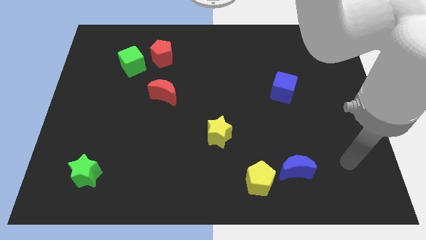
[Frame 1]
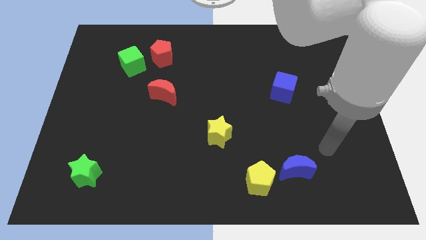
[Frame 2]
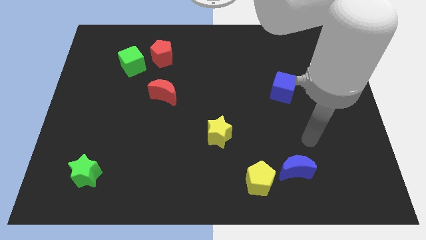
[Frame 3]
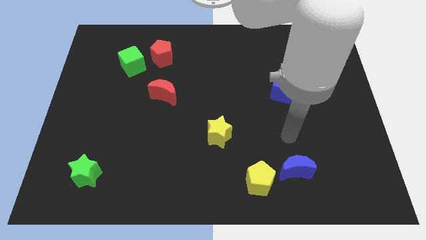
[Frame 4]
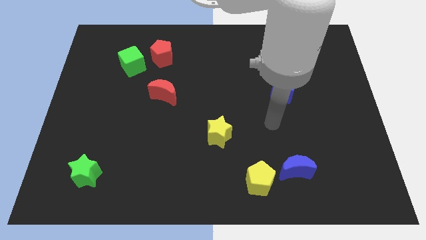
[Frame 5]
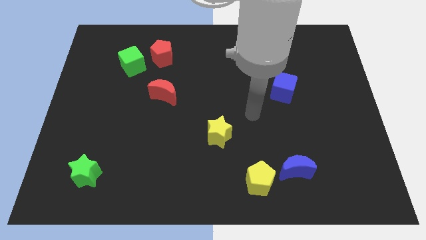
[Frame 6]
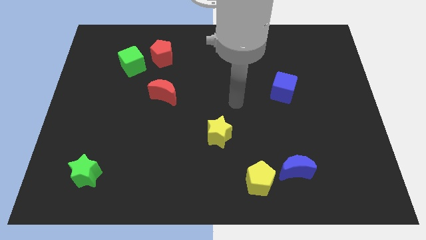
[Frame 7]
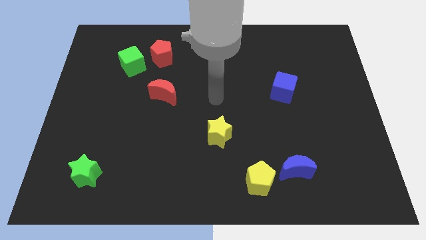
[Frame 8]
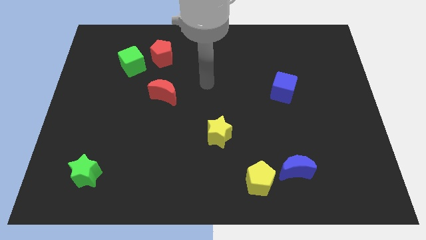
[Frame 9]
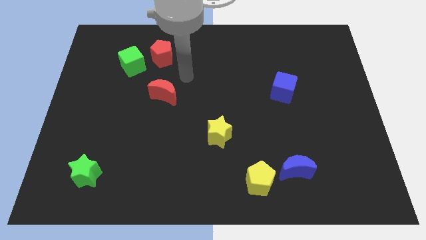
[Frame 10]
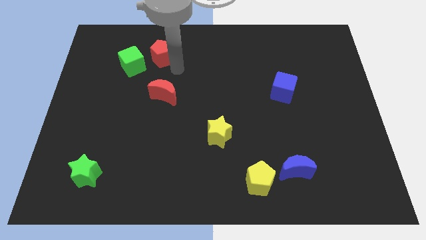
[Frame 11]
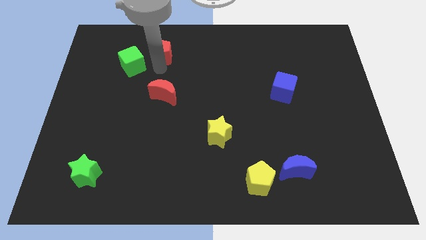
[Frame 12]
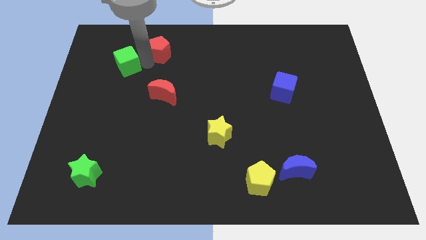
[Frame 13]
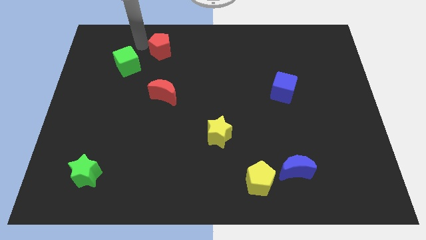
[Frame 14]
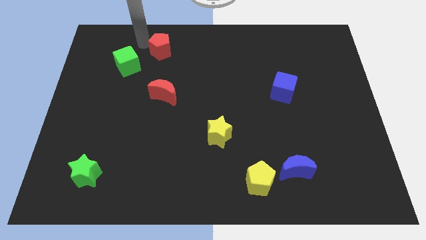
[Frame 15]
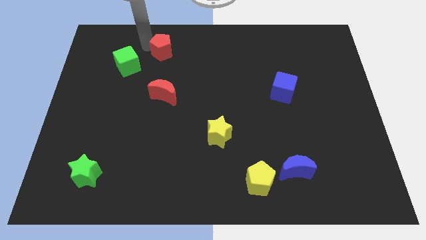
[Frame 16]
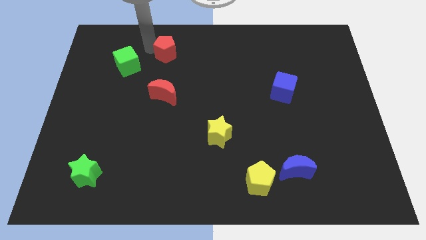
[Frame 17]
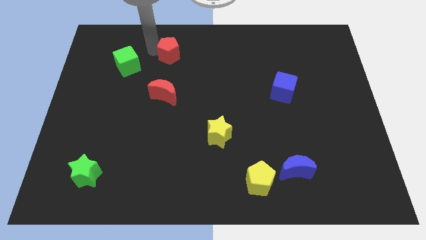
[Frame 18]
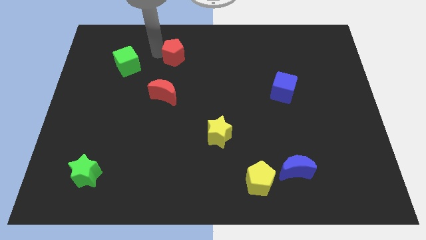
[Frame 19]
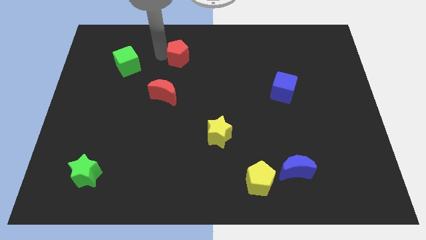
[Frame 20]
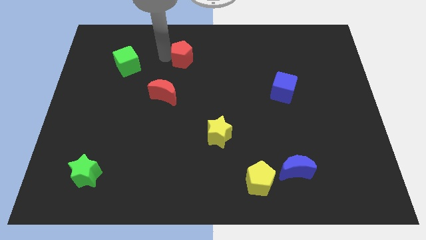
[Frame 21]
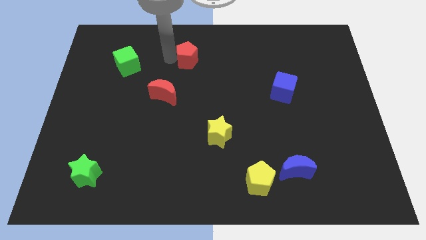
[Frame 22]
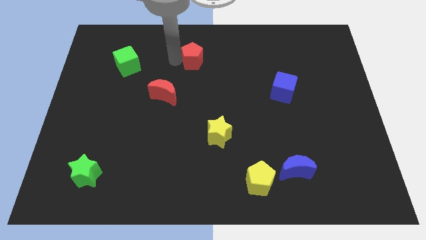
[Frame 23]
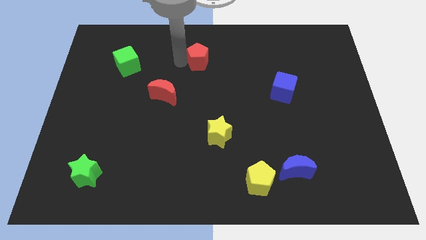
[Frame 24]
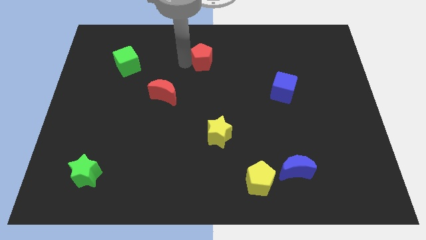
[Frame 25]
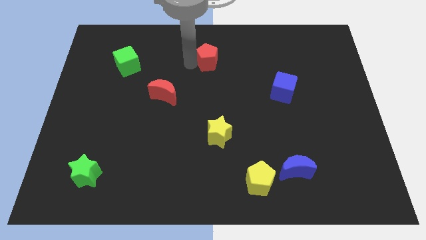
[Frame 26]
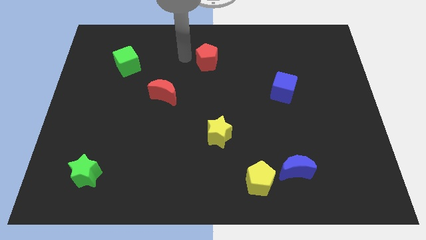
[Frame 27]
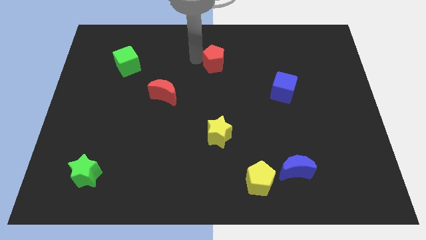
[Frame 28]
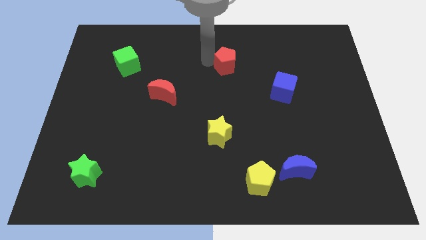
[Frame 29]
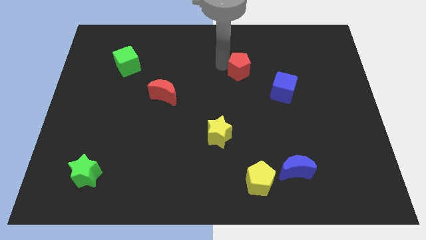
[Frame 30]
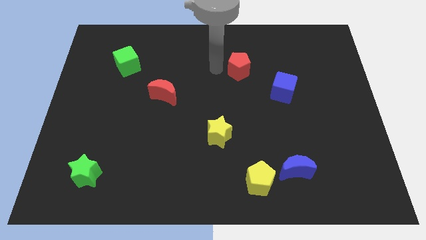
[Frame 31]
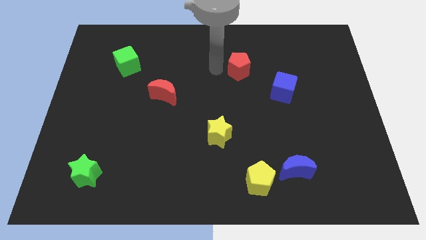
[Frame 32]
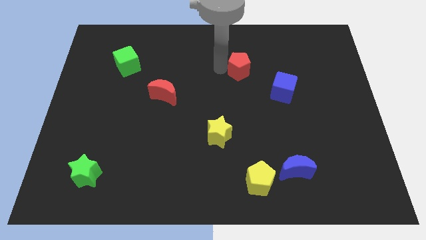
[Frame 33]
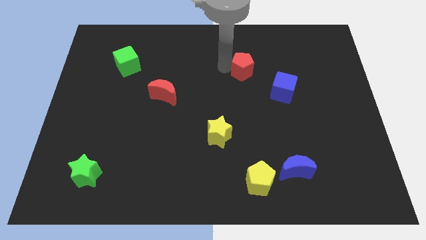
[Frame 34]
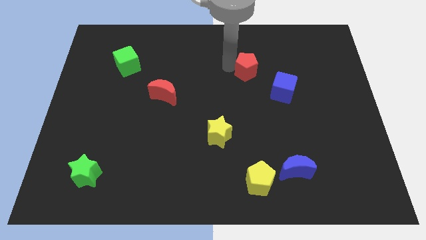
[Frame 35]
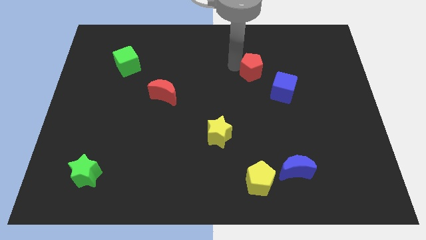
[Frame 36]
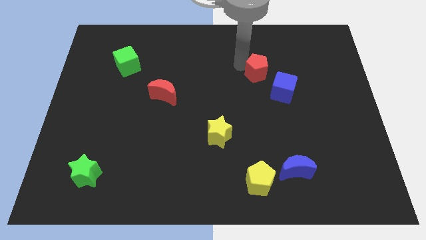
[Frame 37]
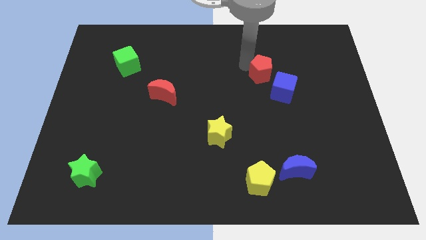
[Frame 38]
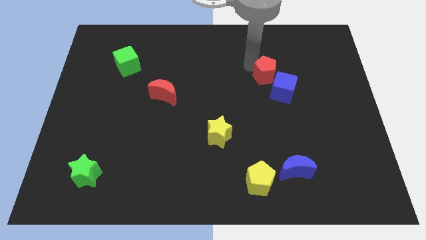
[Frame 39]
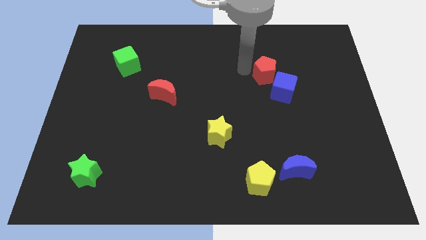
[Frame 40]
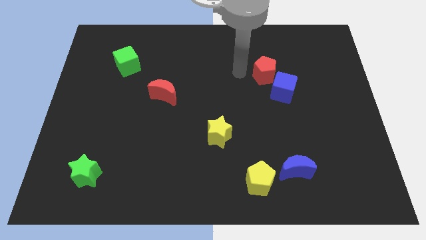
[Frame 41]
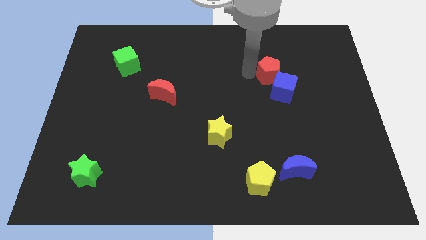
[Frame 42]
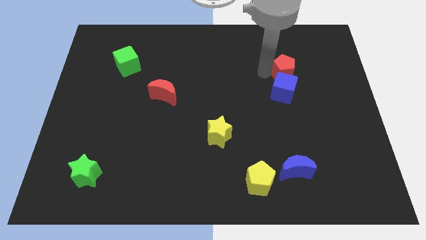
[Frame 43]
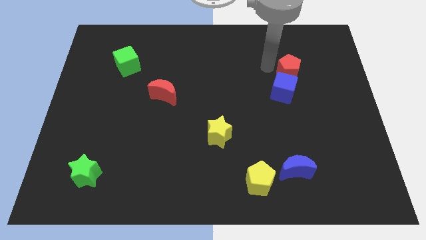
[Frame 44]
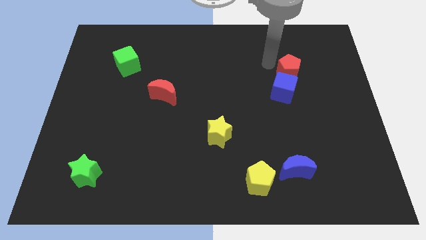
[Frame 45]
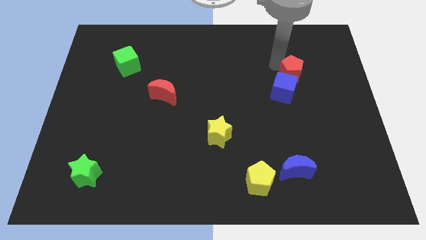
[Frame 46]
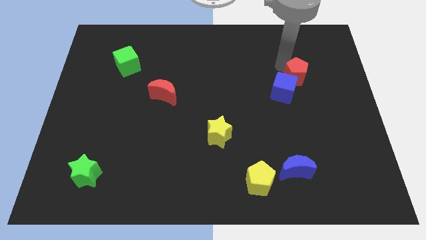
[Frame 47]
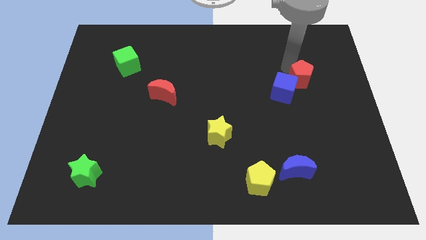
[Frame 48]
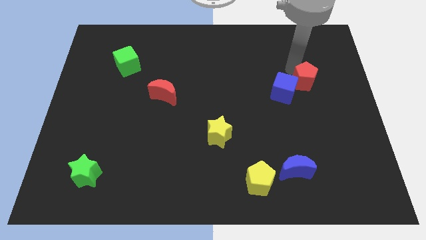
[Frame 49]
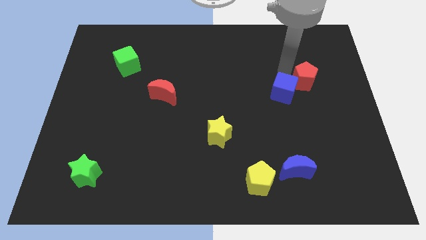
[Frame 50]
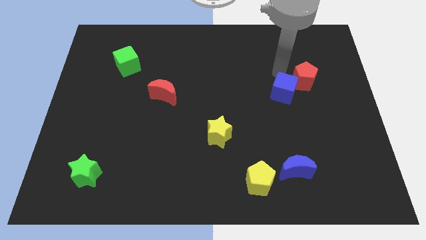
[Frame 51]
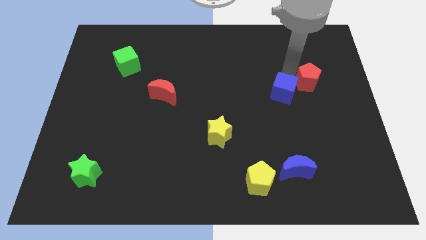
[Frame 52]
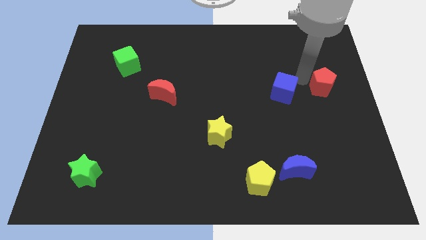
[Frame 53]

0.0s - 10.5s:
push the red pentagon to the right side

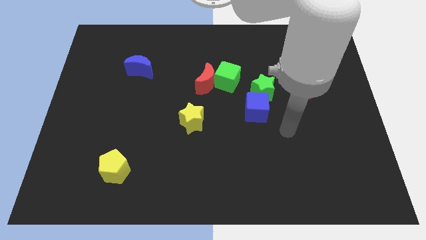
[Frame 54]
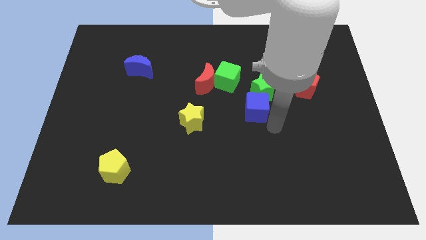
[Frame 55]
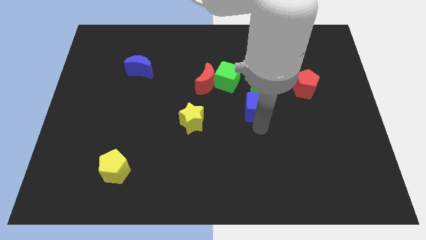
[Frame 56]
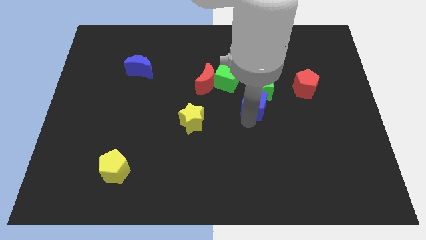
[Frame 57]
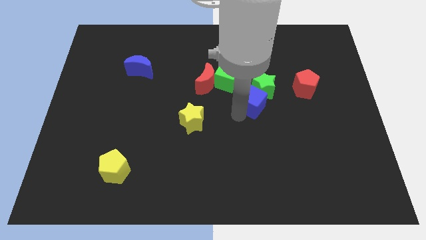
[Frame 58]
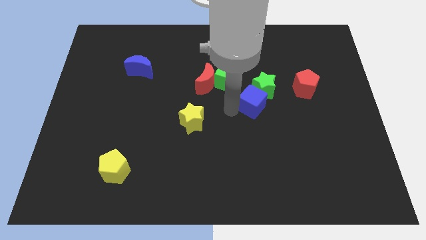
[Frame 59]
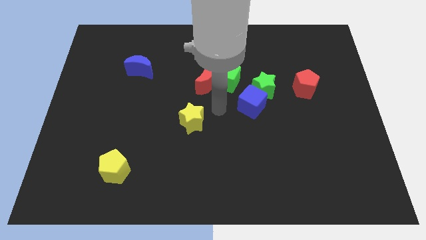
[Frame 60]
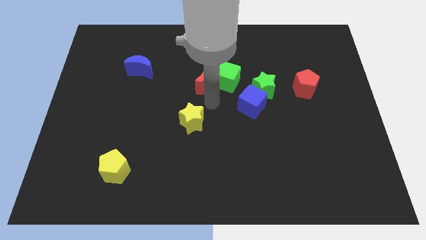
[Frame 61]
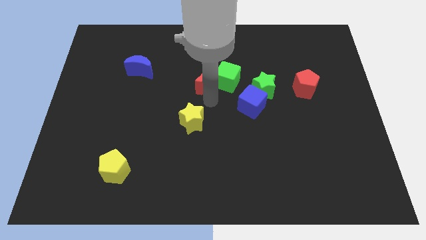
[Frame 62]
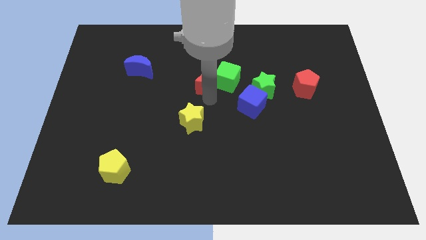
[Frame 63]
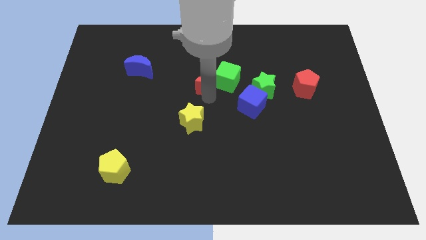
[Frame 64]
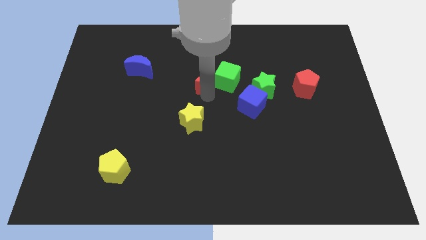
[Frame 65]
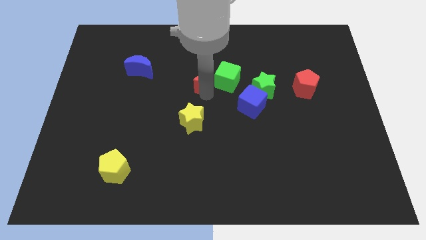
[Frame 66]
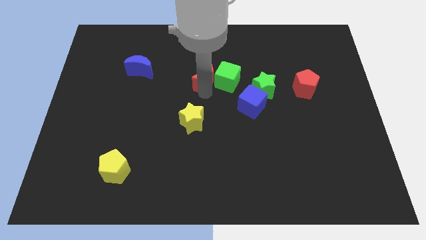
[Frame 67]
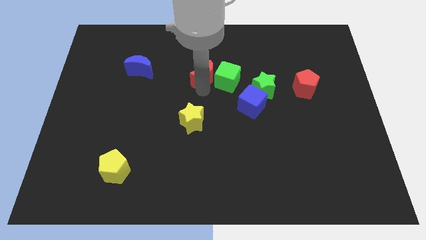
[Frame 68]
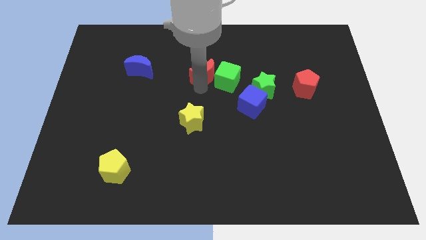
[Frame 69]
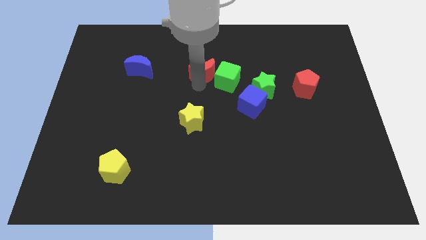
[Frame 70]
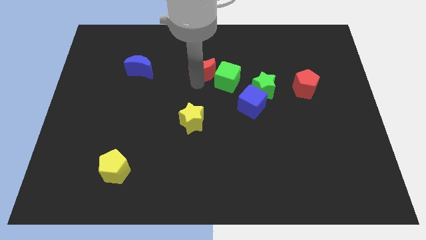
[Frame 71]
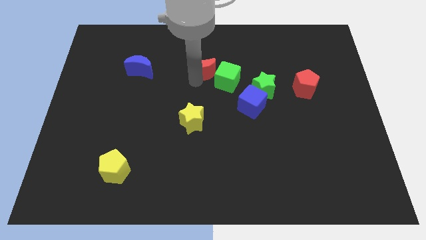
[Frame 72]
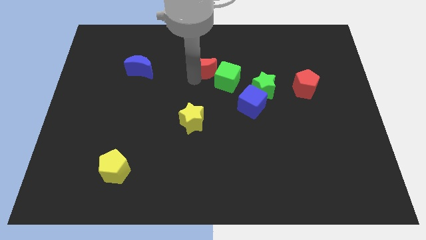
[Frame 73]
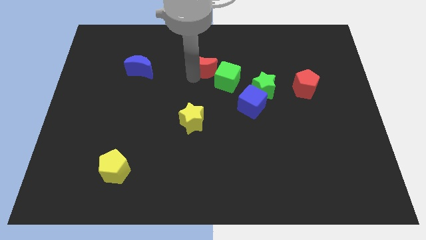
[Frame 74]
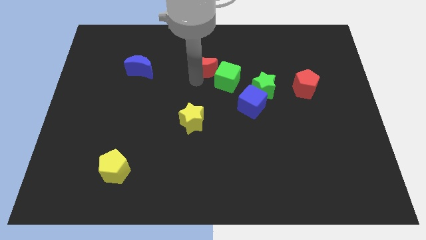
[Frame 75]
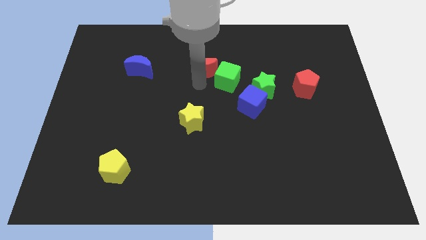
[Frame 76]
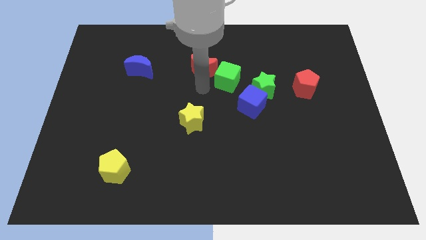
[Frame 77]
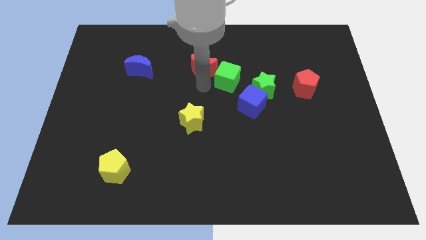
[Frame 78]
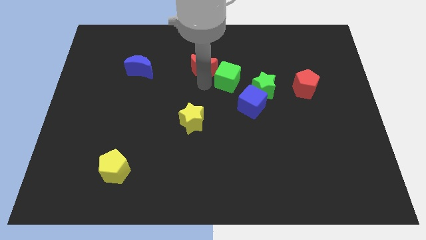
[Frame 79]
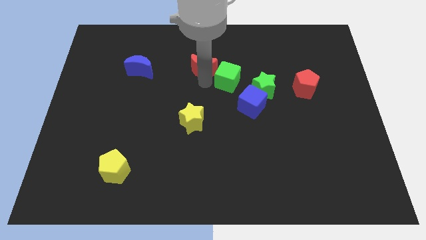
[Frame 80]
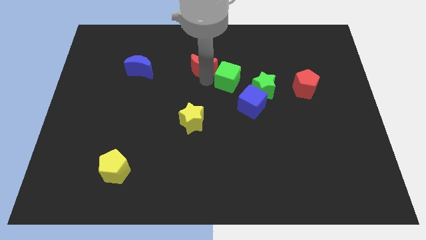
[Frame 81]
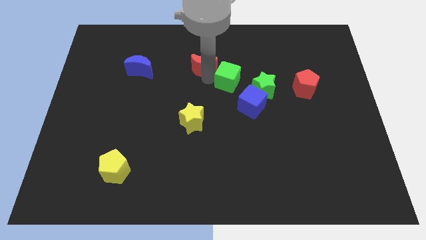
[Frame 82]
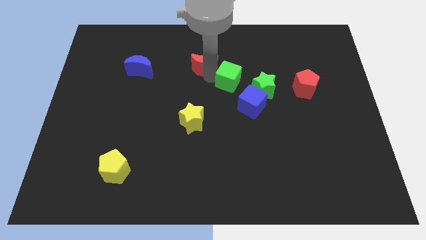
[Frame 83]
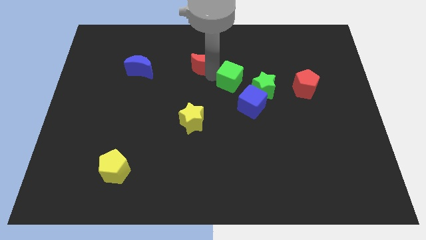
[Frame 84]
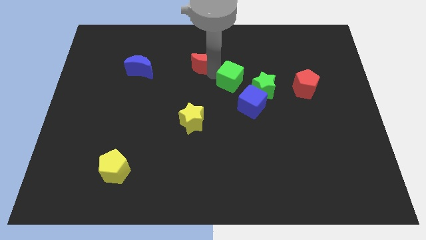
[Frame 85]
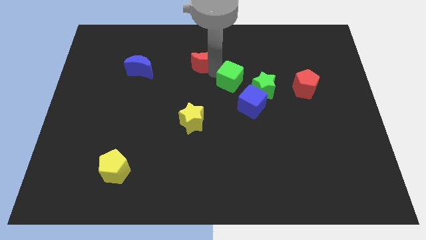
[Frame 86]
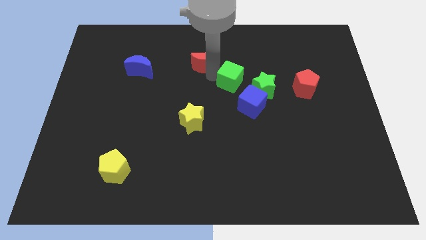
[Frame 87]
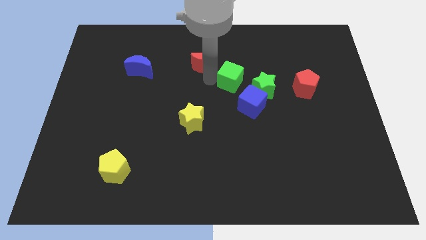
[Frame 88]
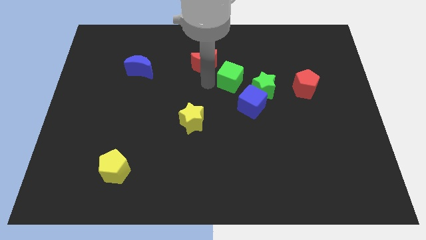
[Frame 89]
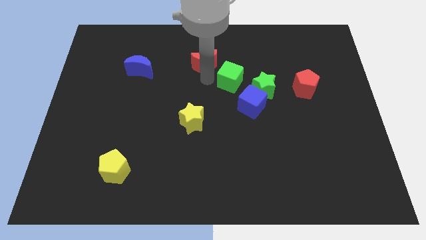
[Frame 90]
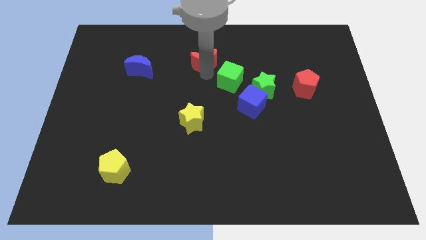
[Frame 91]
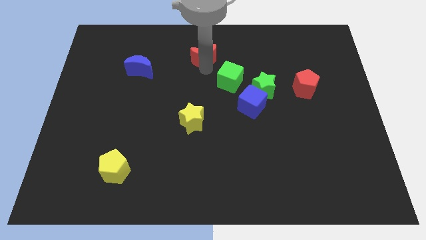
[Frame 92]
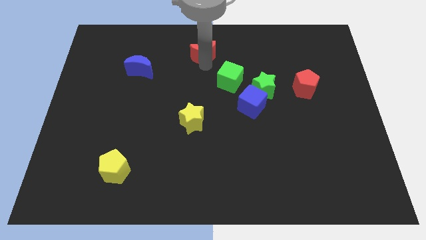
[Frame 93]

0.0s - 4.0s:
put the red moon to the top side
